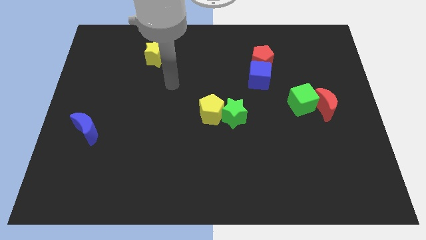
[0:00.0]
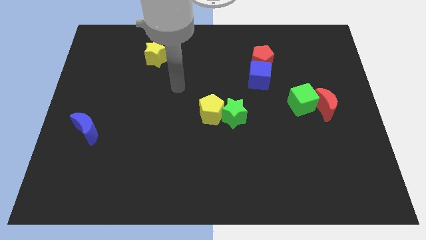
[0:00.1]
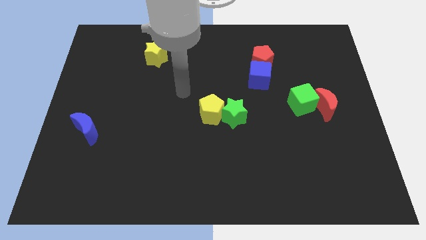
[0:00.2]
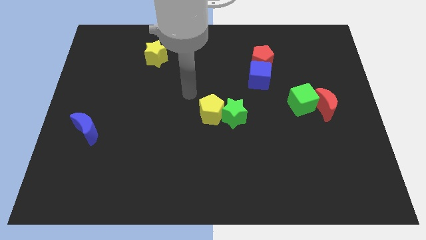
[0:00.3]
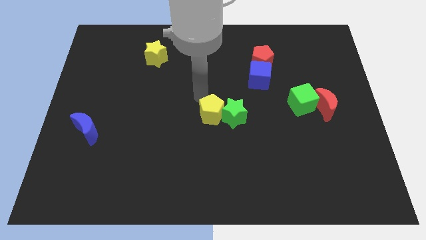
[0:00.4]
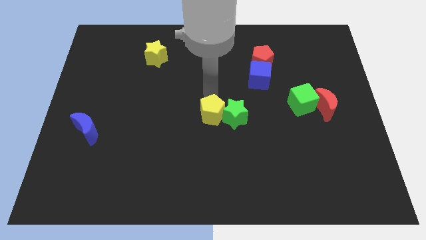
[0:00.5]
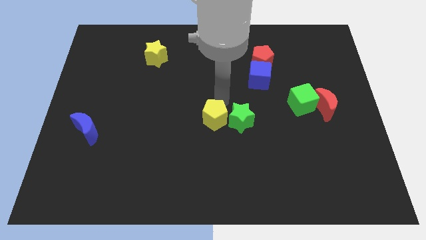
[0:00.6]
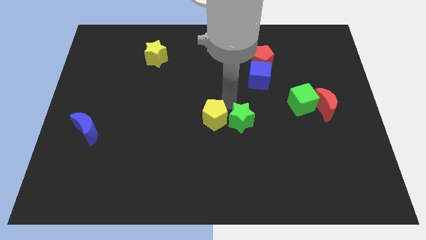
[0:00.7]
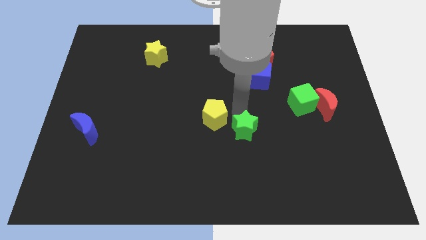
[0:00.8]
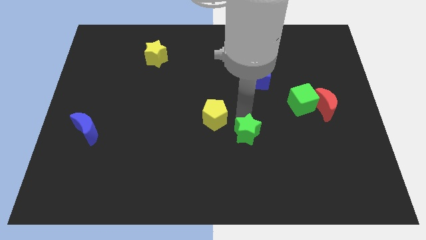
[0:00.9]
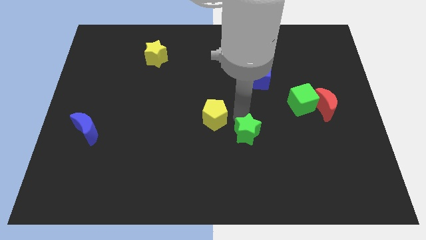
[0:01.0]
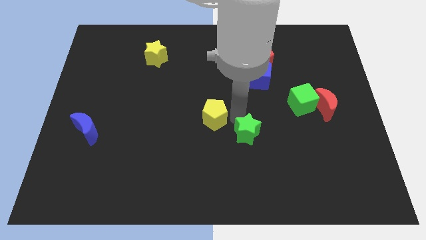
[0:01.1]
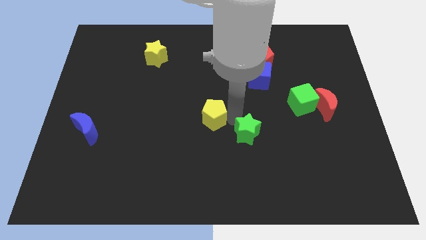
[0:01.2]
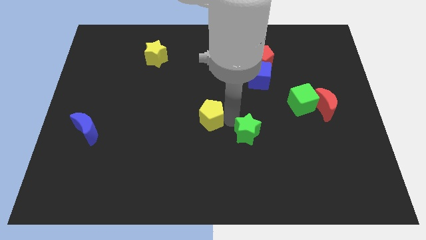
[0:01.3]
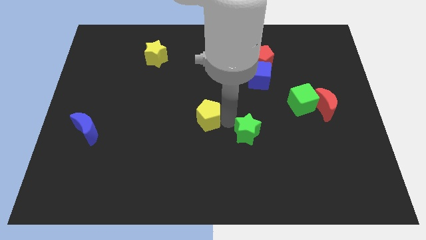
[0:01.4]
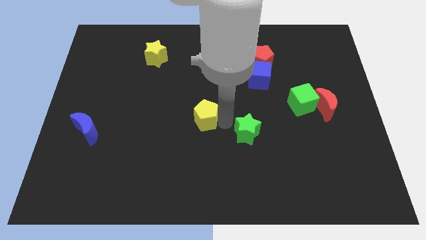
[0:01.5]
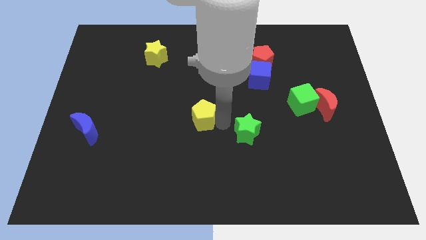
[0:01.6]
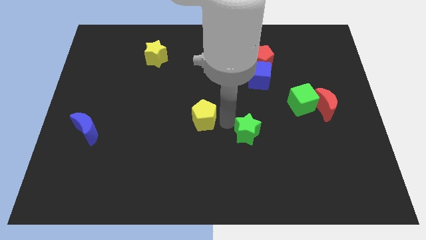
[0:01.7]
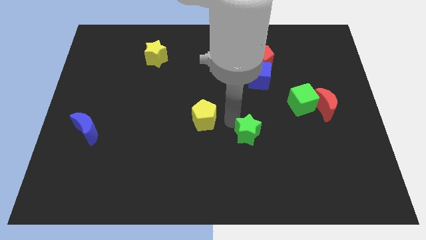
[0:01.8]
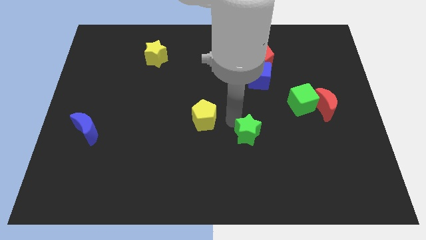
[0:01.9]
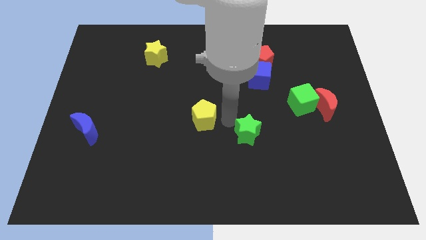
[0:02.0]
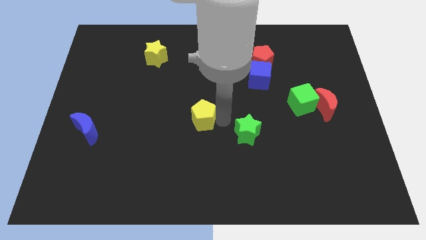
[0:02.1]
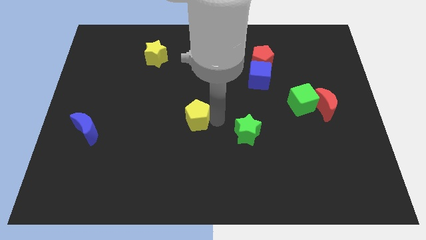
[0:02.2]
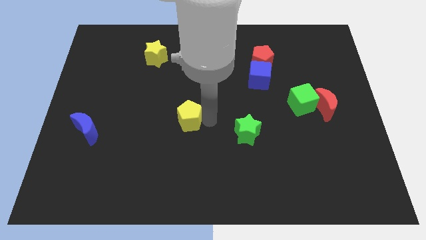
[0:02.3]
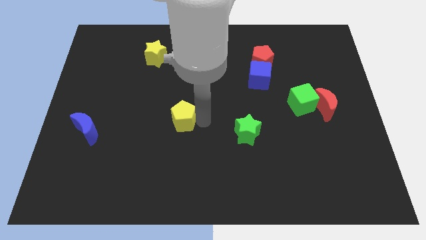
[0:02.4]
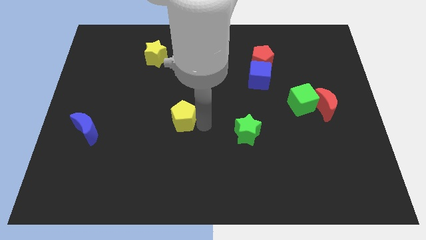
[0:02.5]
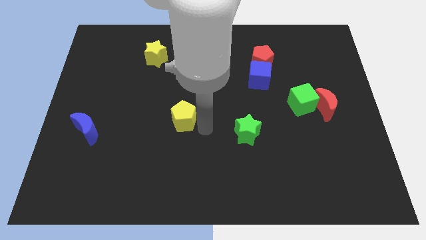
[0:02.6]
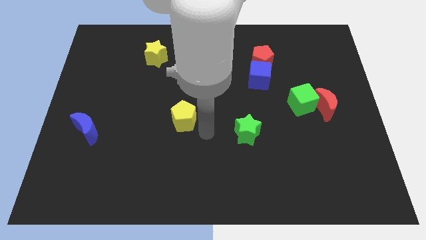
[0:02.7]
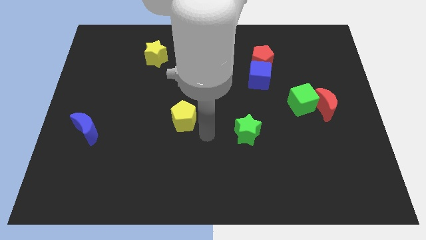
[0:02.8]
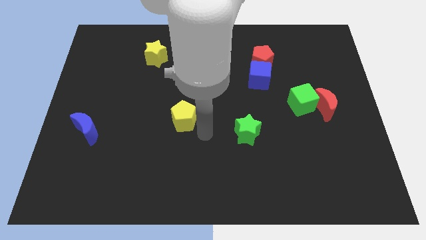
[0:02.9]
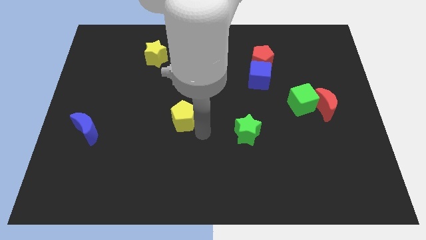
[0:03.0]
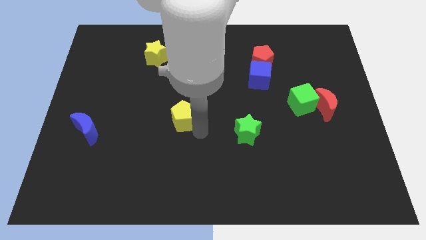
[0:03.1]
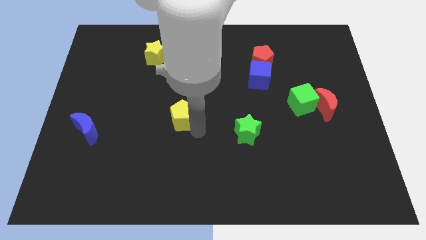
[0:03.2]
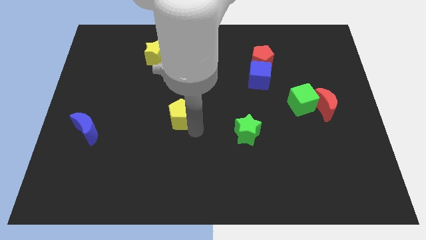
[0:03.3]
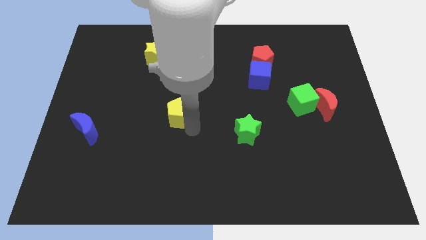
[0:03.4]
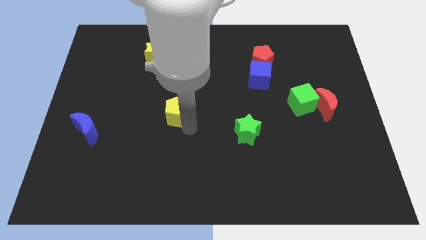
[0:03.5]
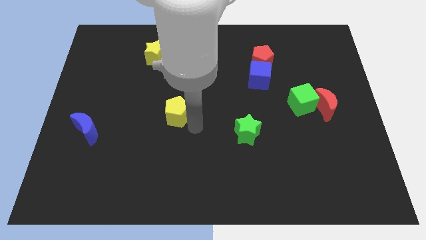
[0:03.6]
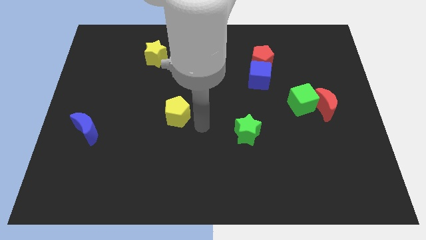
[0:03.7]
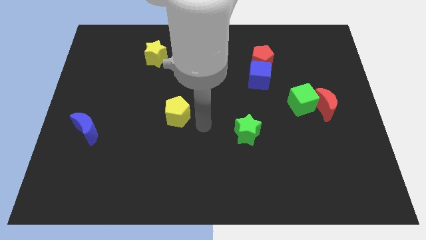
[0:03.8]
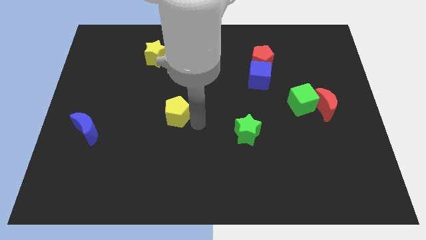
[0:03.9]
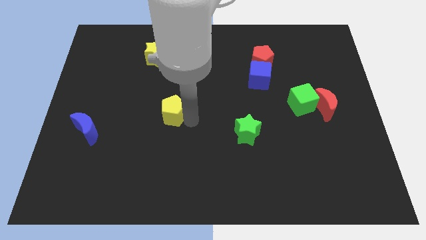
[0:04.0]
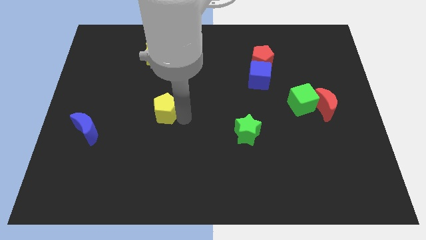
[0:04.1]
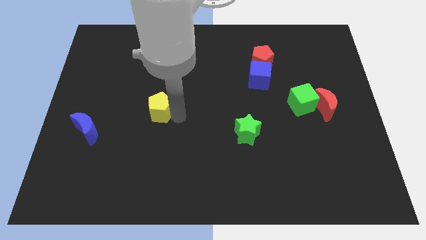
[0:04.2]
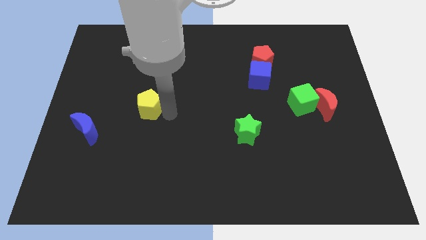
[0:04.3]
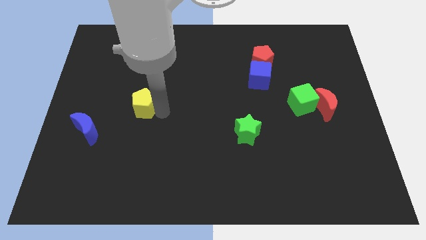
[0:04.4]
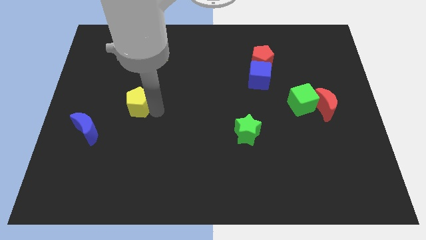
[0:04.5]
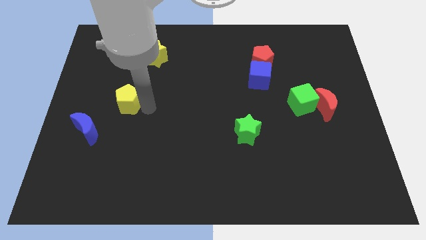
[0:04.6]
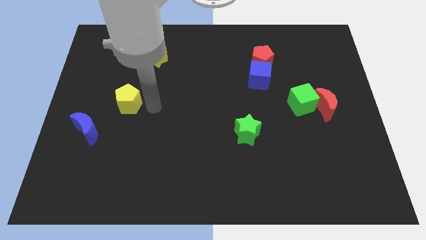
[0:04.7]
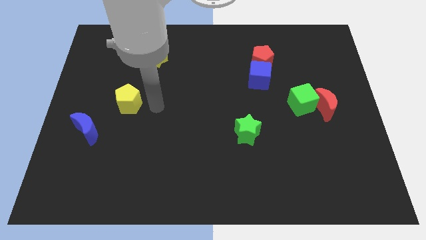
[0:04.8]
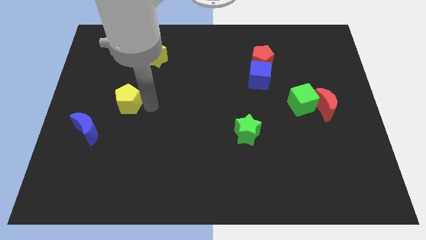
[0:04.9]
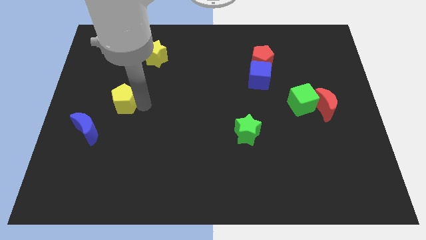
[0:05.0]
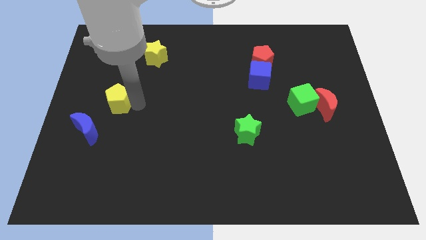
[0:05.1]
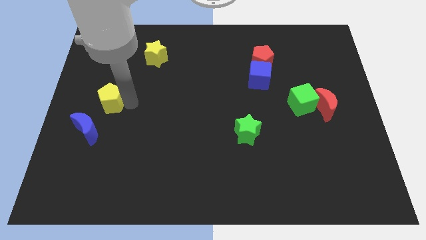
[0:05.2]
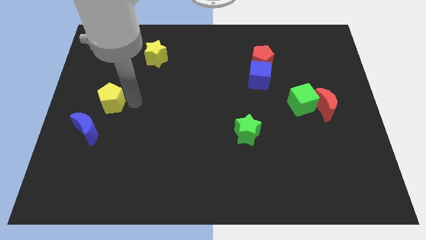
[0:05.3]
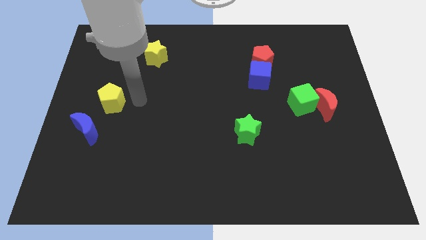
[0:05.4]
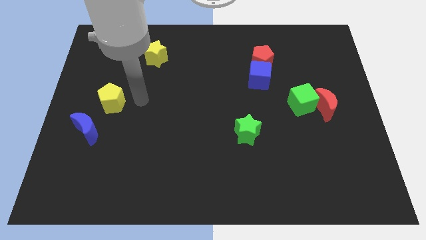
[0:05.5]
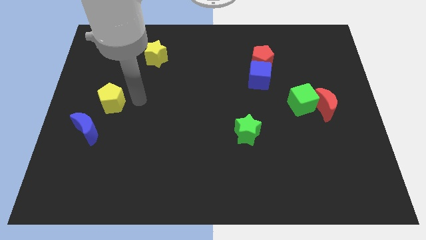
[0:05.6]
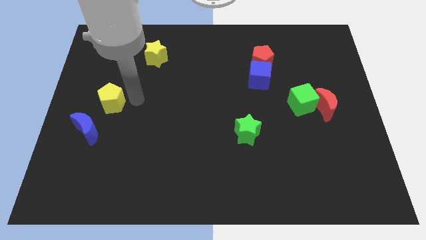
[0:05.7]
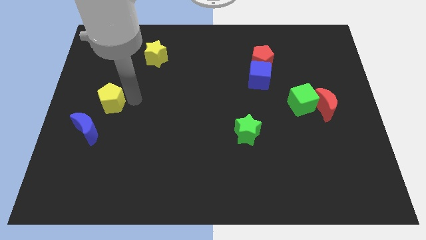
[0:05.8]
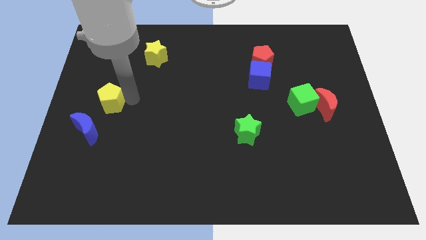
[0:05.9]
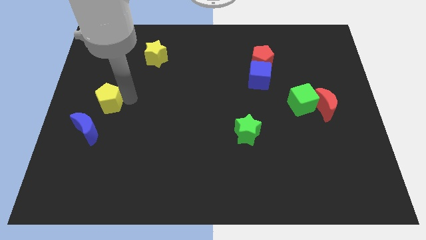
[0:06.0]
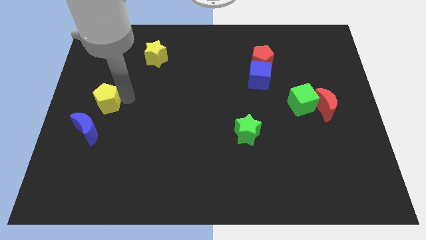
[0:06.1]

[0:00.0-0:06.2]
push the yellow pentagon to the left side of the board
